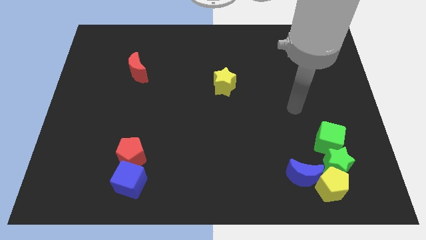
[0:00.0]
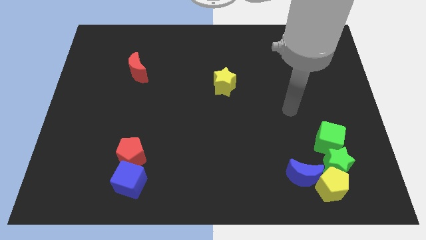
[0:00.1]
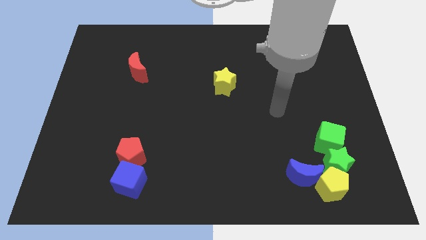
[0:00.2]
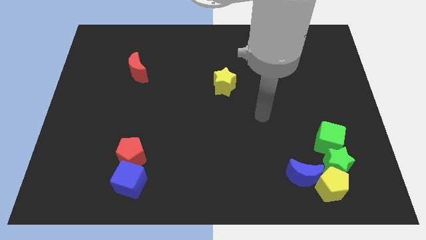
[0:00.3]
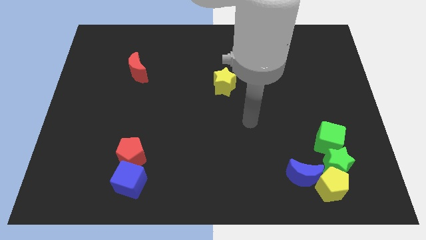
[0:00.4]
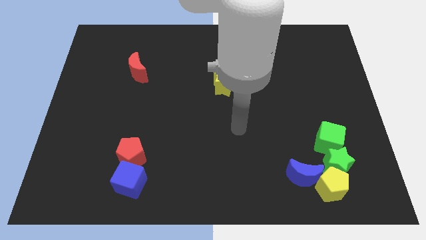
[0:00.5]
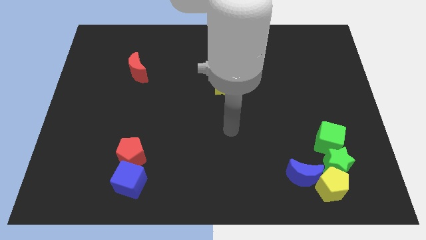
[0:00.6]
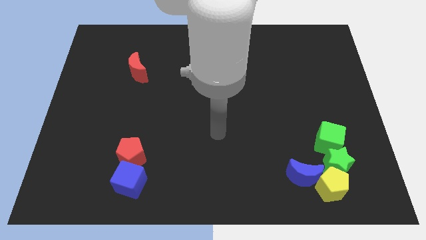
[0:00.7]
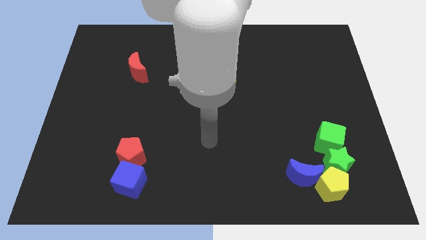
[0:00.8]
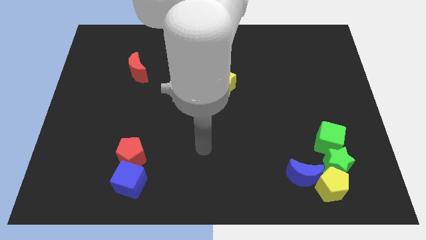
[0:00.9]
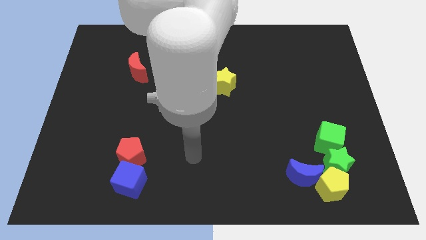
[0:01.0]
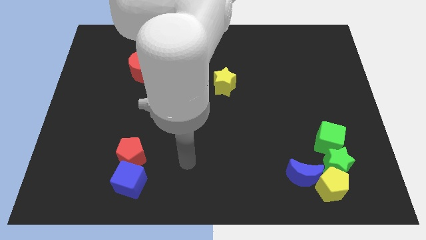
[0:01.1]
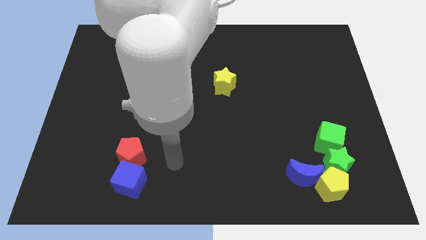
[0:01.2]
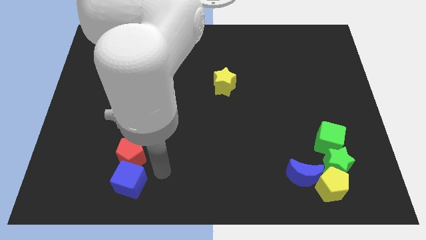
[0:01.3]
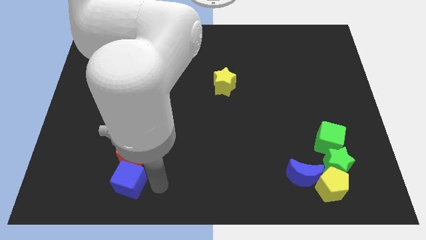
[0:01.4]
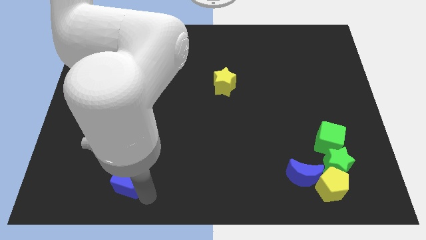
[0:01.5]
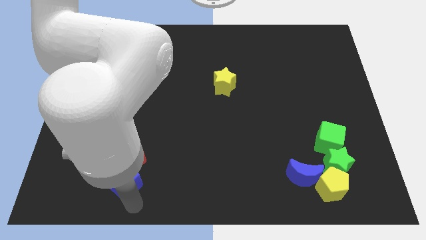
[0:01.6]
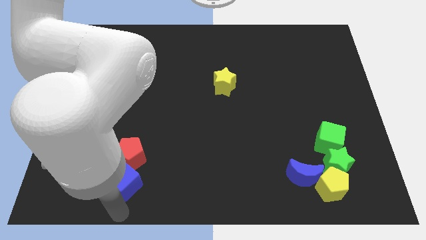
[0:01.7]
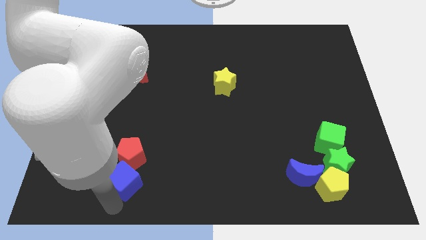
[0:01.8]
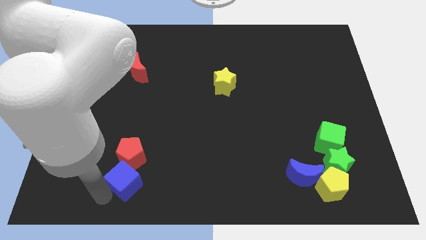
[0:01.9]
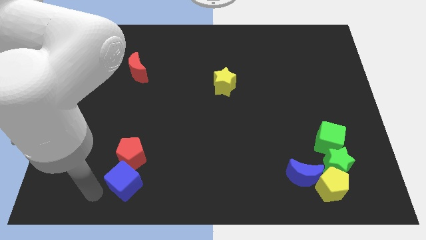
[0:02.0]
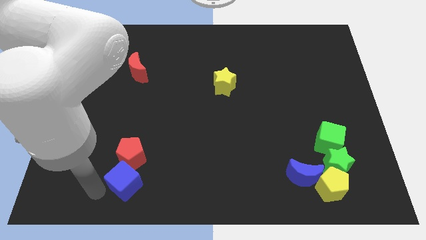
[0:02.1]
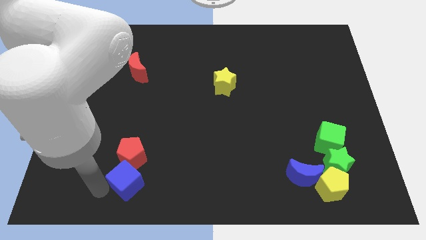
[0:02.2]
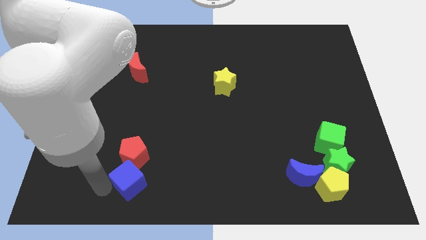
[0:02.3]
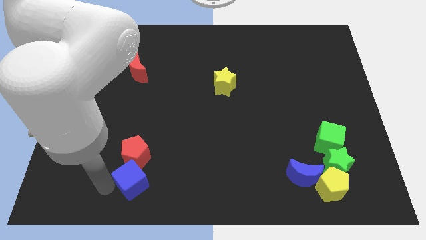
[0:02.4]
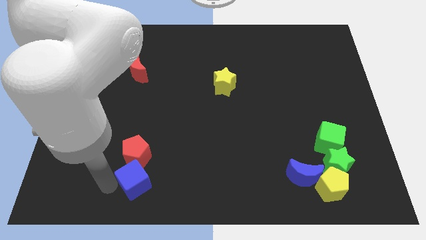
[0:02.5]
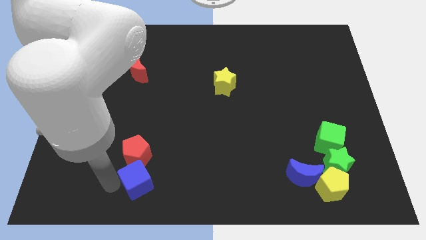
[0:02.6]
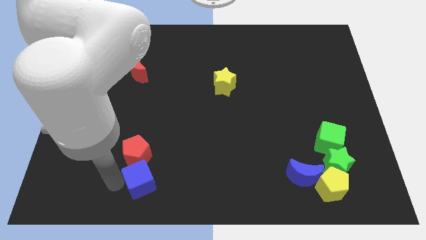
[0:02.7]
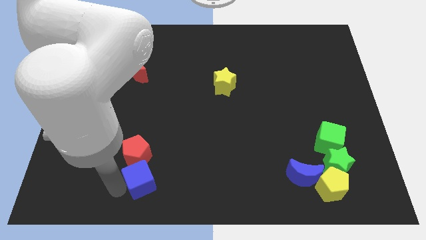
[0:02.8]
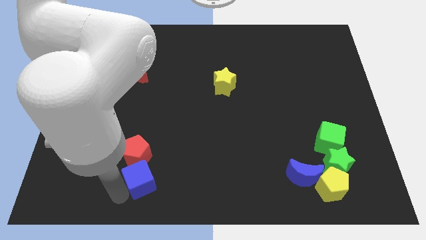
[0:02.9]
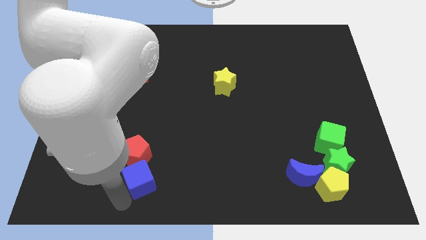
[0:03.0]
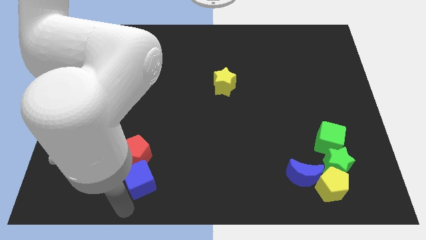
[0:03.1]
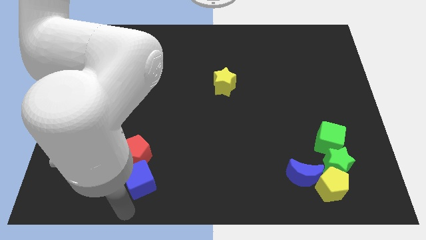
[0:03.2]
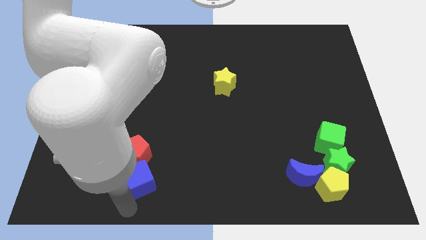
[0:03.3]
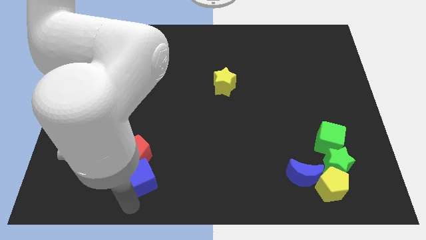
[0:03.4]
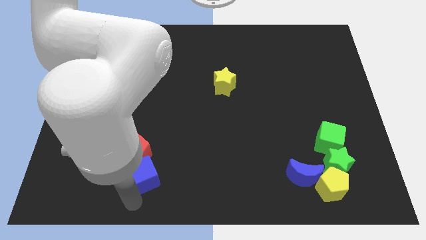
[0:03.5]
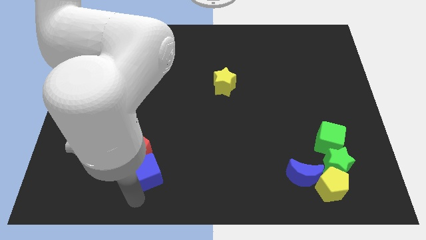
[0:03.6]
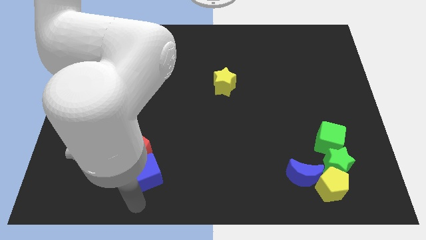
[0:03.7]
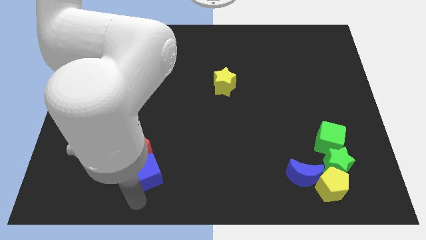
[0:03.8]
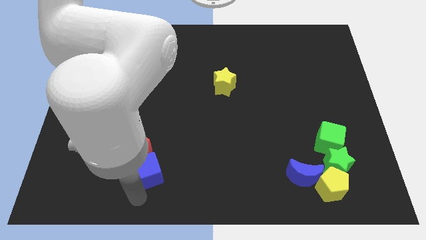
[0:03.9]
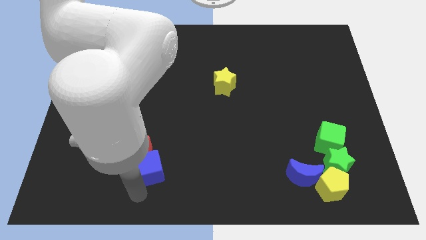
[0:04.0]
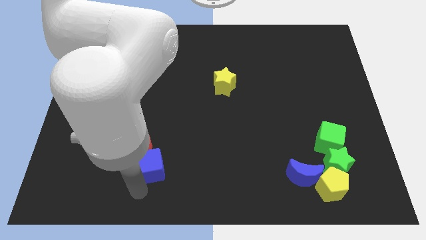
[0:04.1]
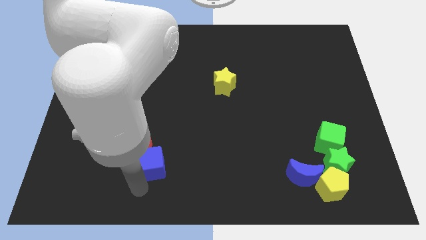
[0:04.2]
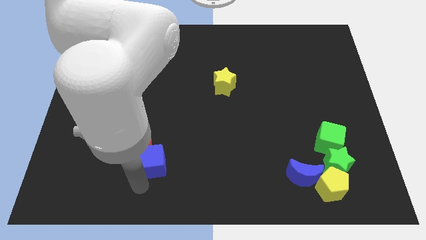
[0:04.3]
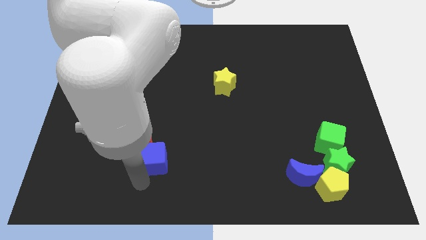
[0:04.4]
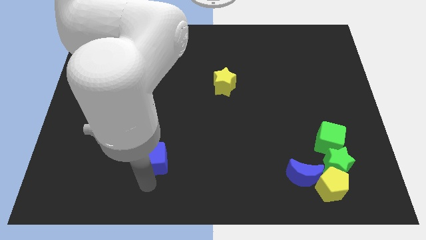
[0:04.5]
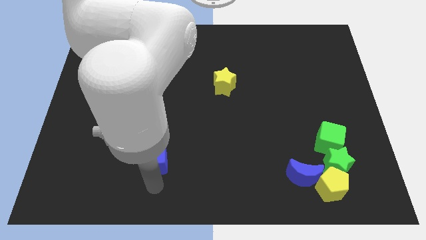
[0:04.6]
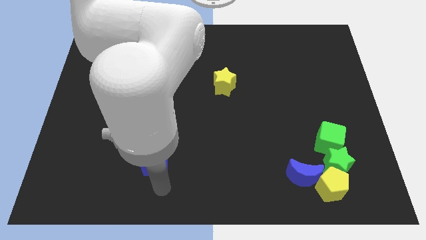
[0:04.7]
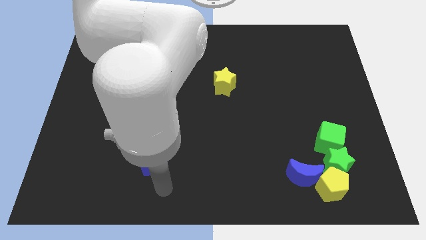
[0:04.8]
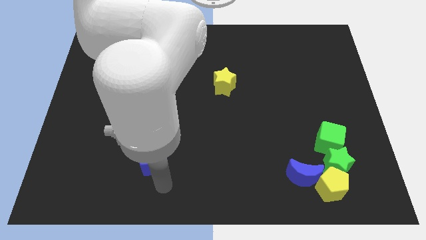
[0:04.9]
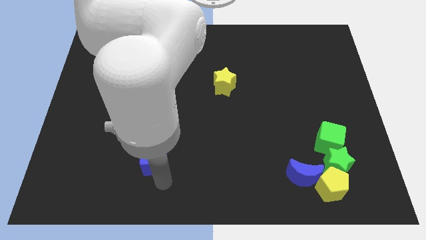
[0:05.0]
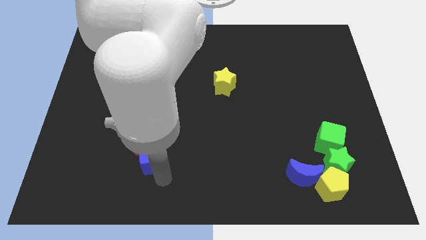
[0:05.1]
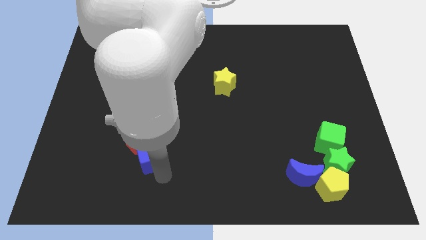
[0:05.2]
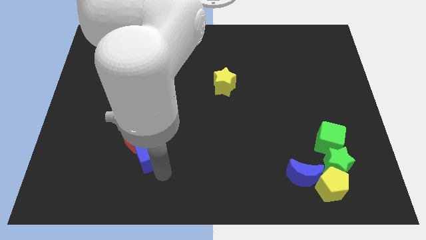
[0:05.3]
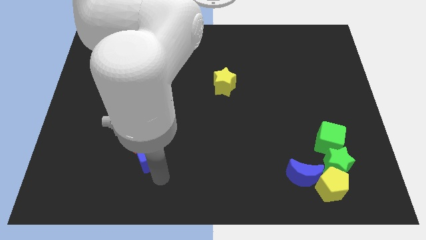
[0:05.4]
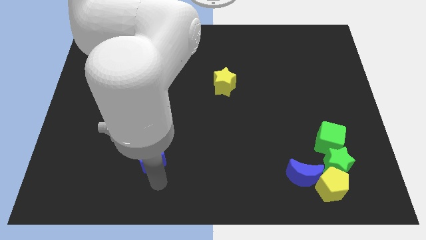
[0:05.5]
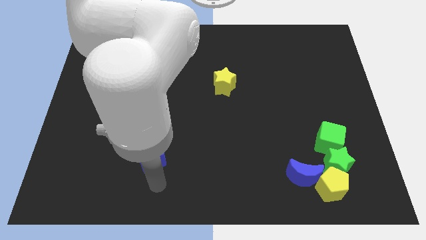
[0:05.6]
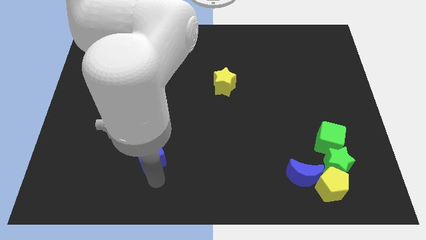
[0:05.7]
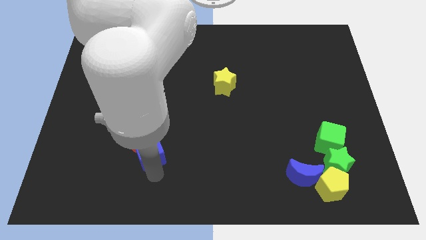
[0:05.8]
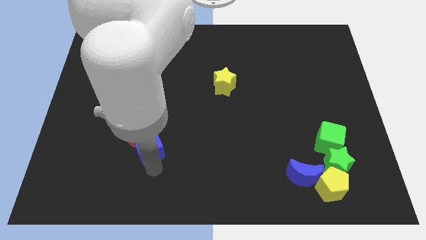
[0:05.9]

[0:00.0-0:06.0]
push the blue cube a bit upwards

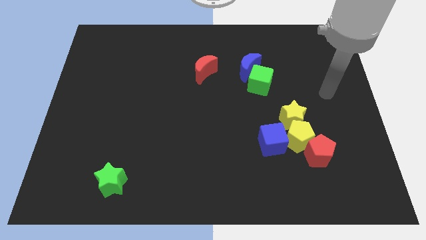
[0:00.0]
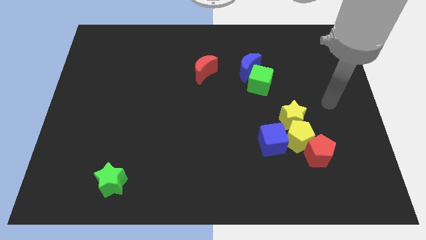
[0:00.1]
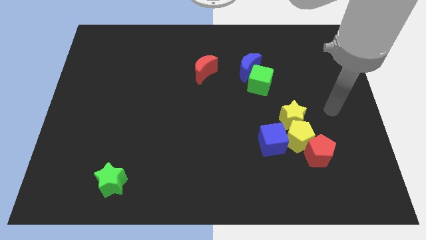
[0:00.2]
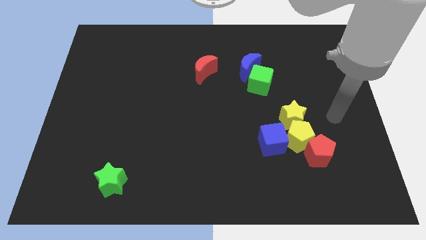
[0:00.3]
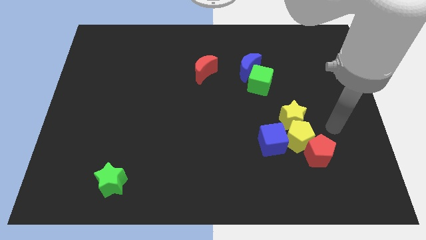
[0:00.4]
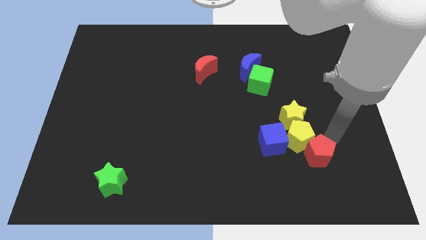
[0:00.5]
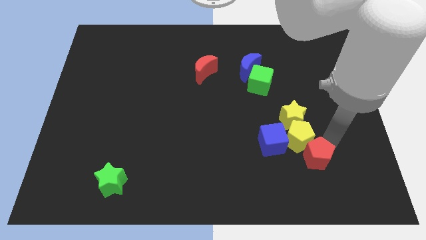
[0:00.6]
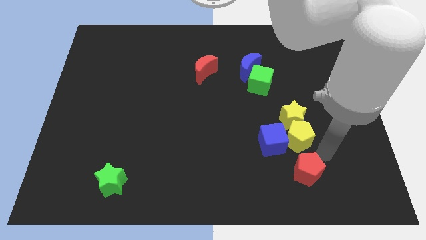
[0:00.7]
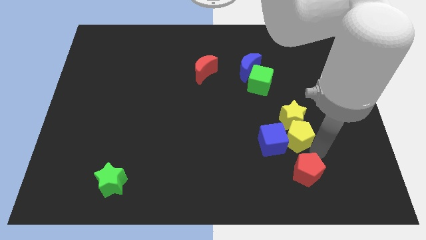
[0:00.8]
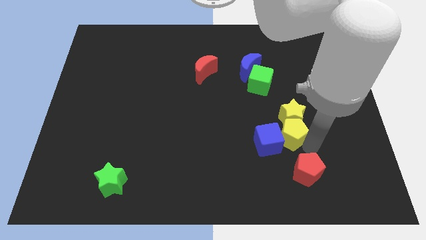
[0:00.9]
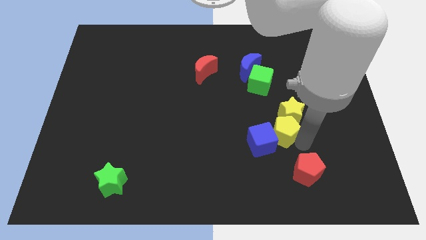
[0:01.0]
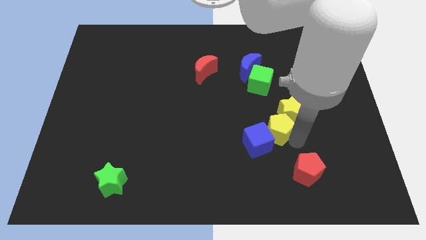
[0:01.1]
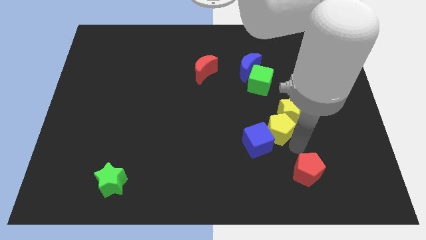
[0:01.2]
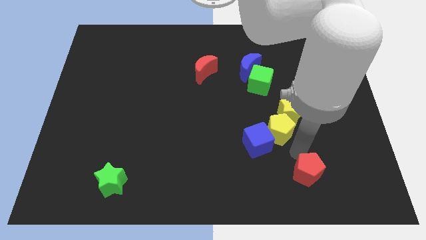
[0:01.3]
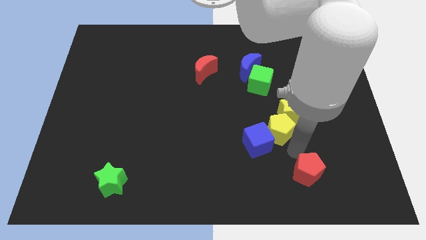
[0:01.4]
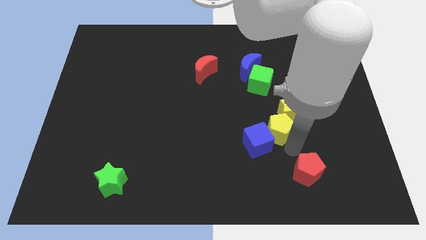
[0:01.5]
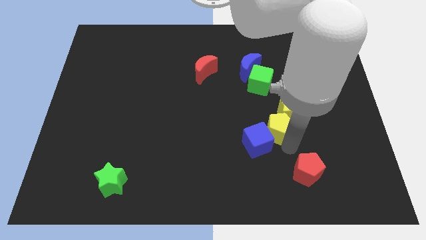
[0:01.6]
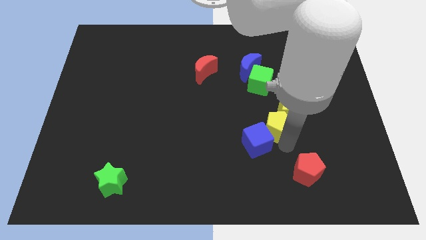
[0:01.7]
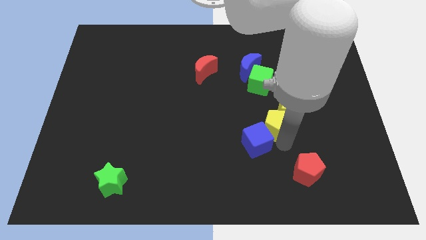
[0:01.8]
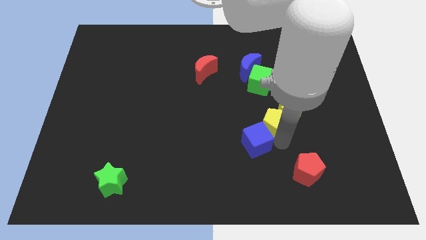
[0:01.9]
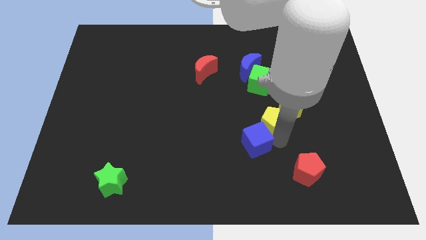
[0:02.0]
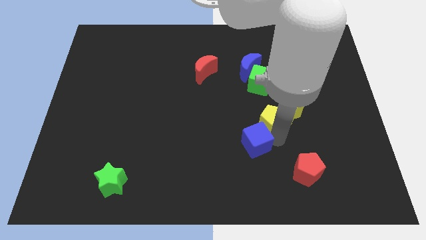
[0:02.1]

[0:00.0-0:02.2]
slightly slide the yellow pentagon upwards and then left
